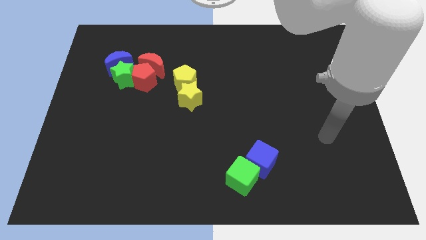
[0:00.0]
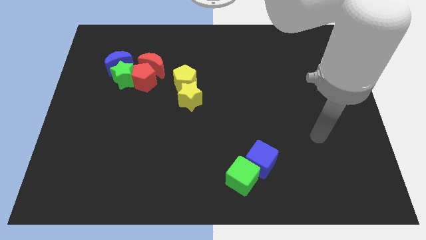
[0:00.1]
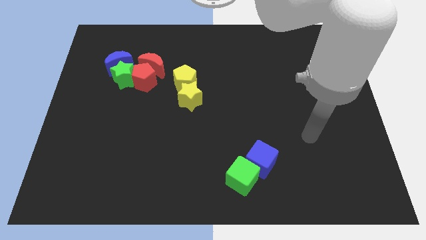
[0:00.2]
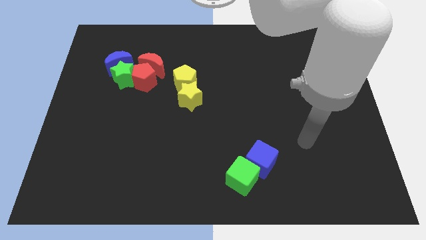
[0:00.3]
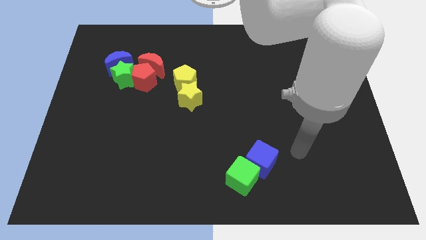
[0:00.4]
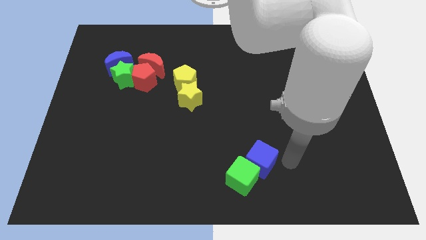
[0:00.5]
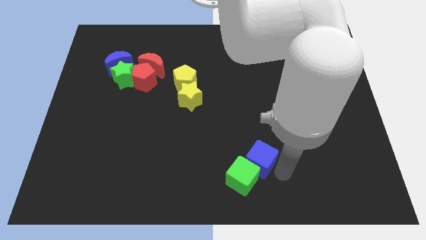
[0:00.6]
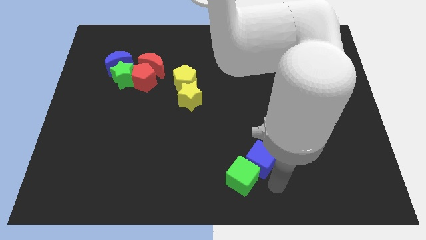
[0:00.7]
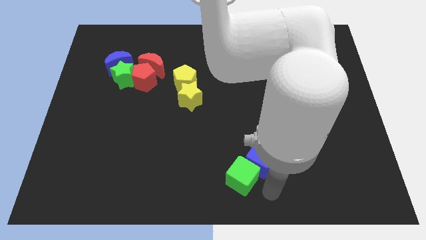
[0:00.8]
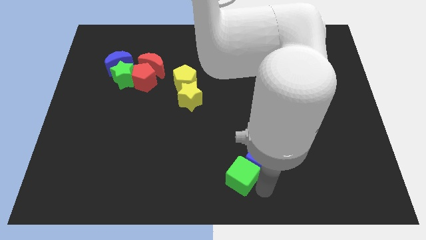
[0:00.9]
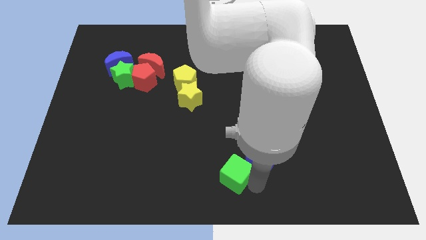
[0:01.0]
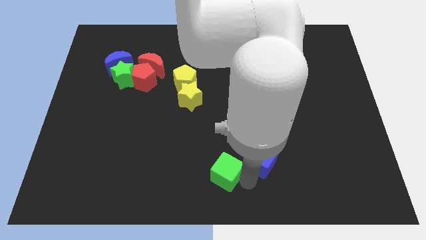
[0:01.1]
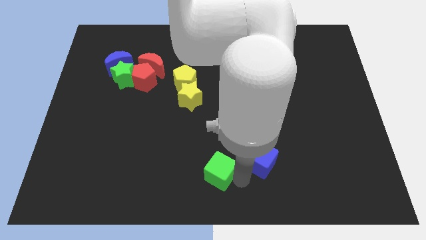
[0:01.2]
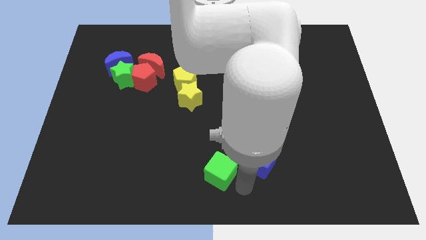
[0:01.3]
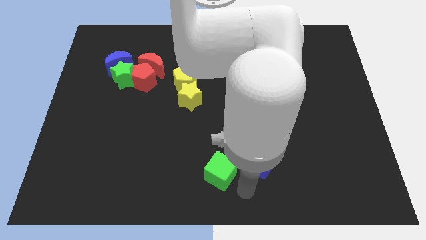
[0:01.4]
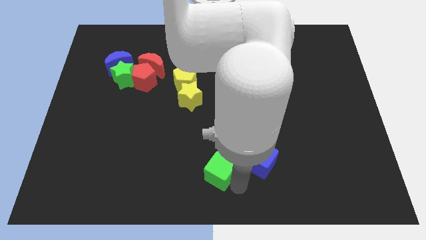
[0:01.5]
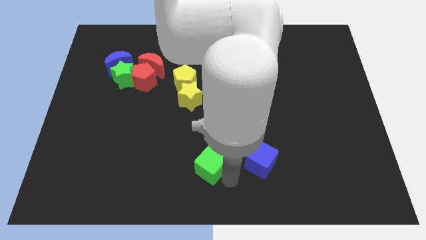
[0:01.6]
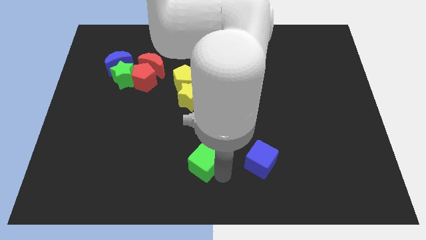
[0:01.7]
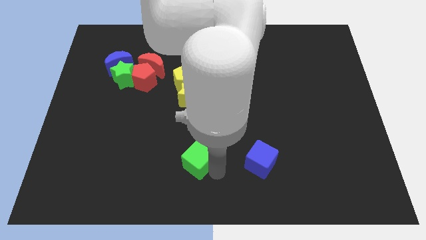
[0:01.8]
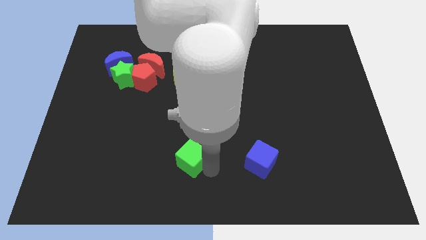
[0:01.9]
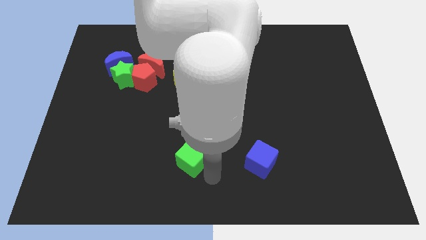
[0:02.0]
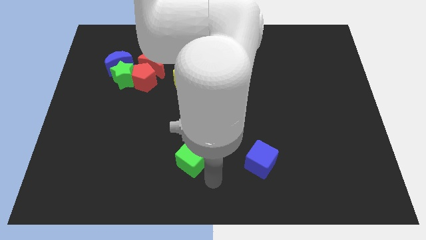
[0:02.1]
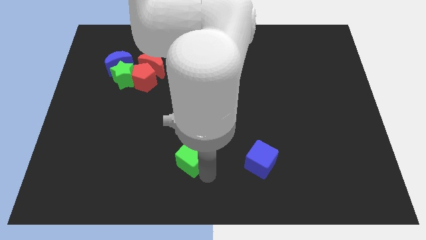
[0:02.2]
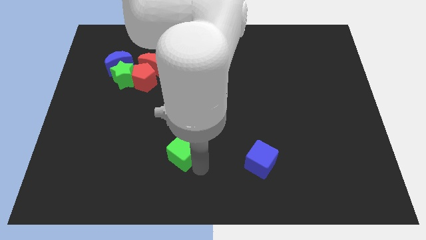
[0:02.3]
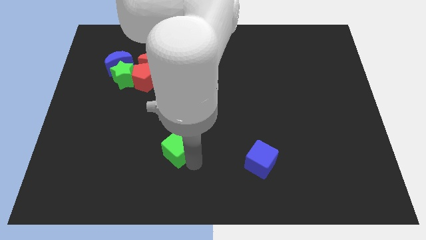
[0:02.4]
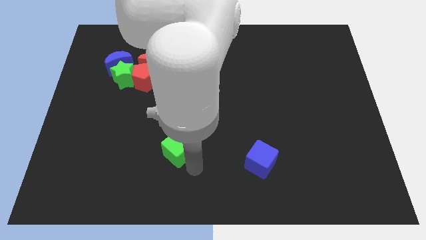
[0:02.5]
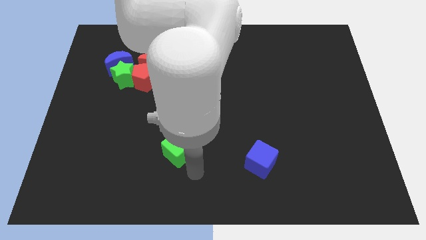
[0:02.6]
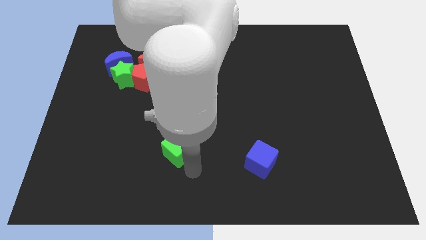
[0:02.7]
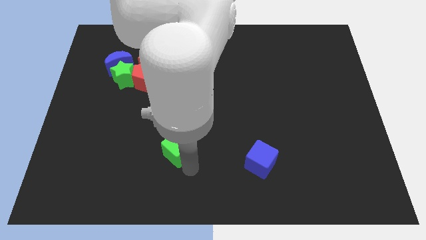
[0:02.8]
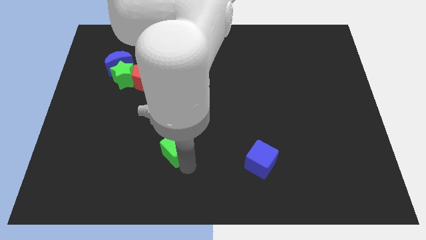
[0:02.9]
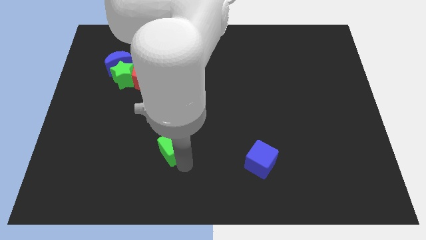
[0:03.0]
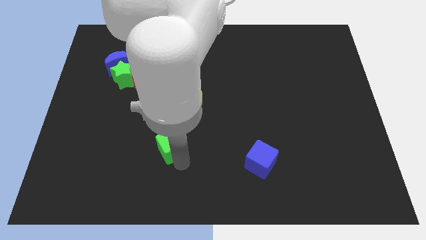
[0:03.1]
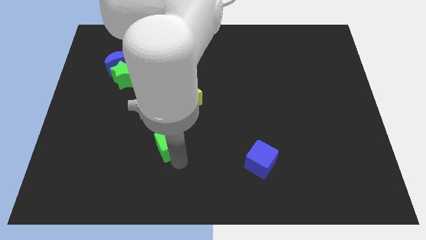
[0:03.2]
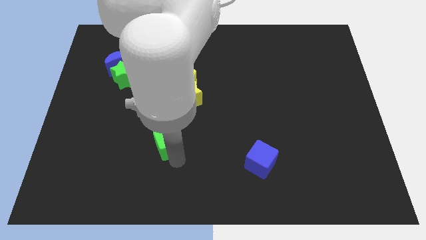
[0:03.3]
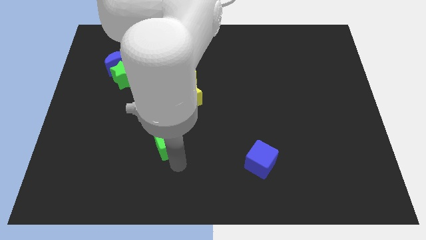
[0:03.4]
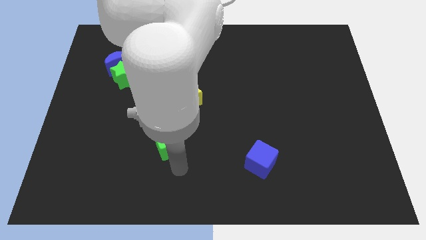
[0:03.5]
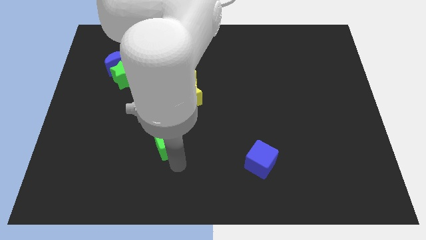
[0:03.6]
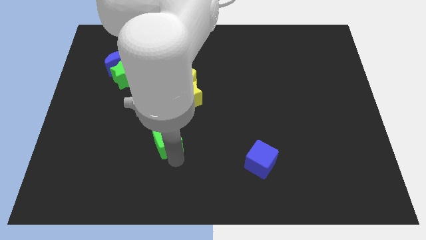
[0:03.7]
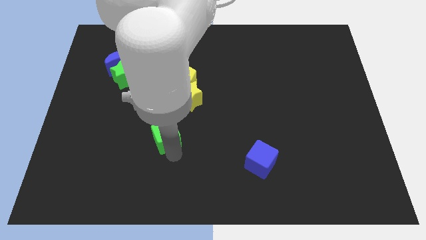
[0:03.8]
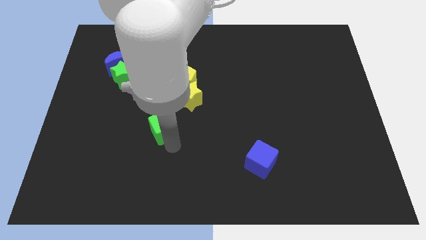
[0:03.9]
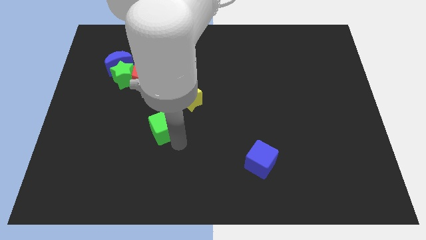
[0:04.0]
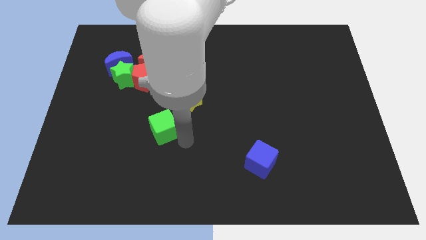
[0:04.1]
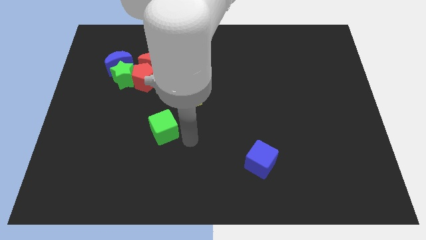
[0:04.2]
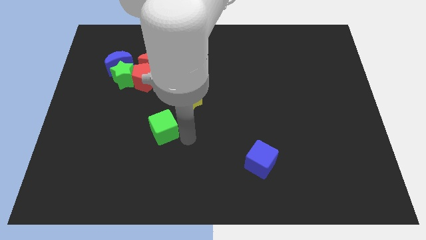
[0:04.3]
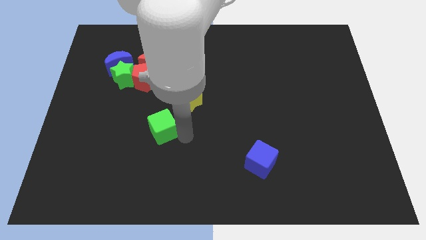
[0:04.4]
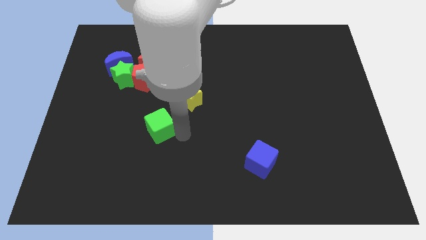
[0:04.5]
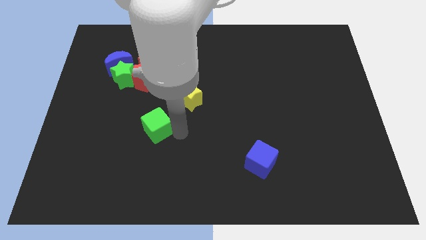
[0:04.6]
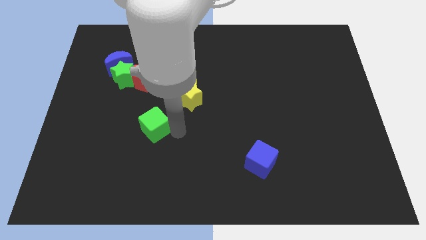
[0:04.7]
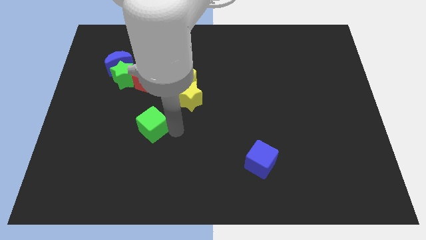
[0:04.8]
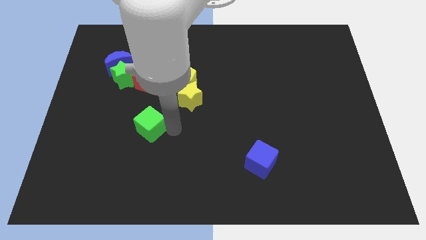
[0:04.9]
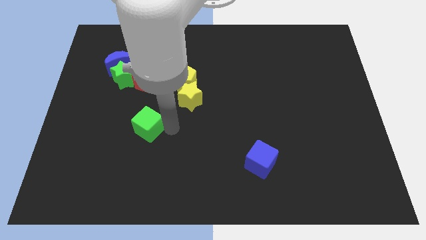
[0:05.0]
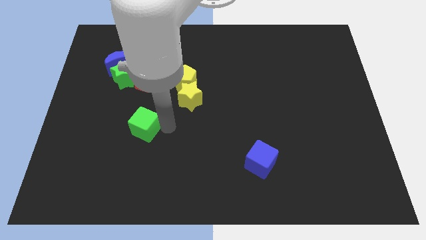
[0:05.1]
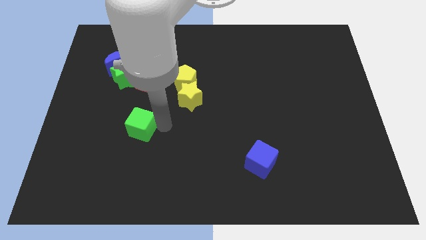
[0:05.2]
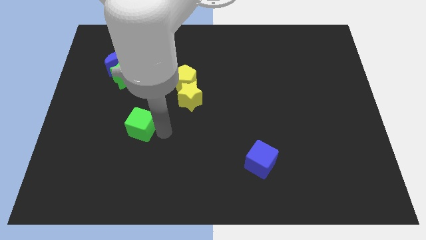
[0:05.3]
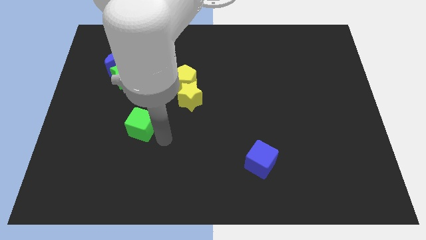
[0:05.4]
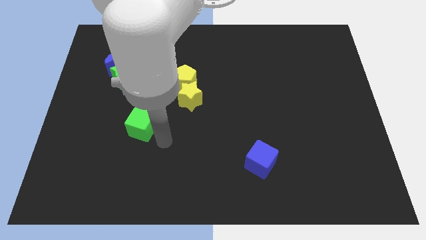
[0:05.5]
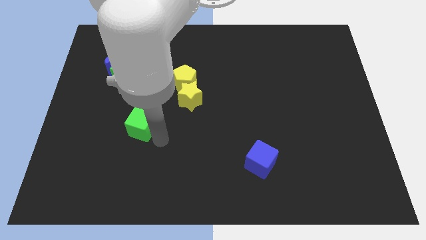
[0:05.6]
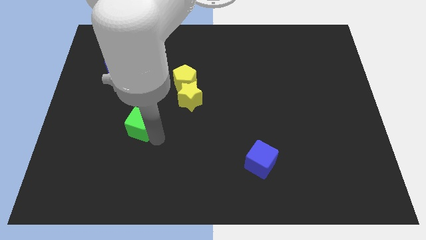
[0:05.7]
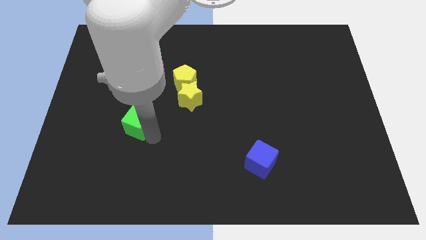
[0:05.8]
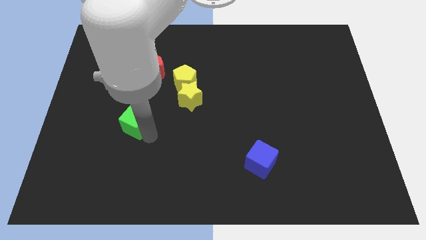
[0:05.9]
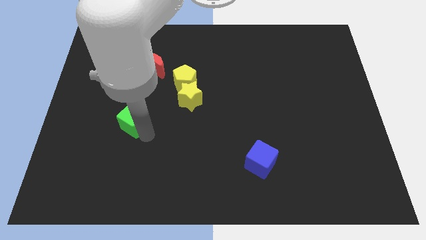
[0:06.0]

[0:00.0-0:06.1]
push the green cube to the bottom of the green star
